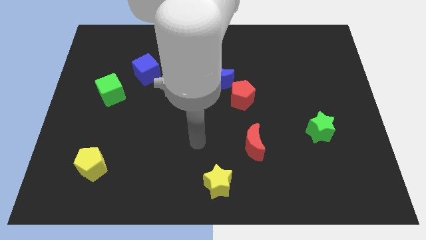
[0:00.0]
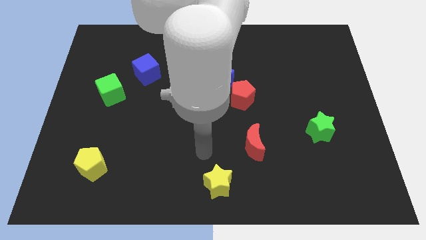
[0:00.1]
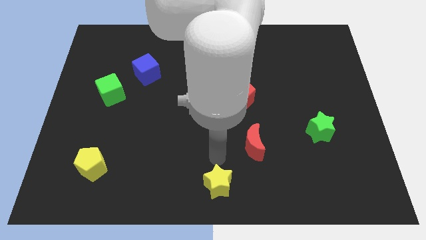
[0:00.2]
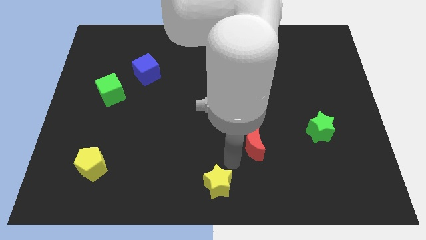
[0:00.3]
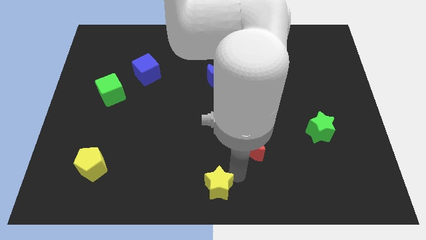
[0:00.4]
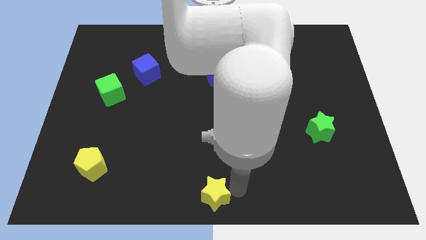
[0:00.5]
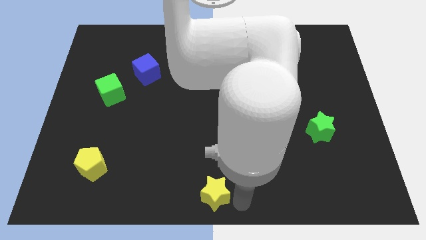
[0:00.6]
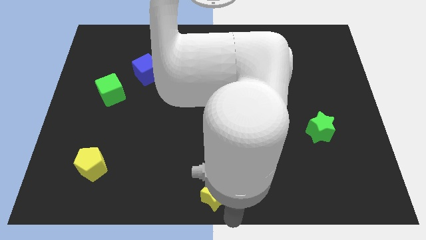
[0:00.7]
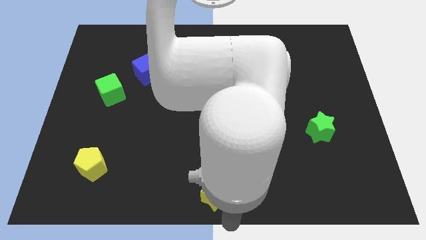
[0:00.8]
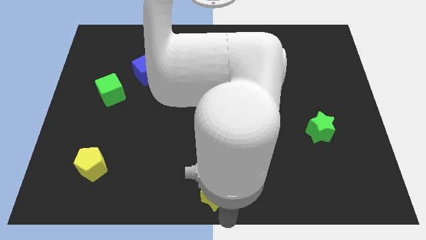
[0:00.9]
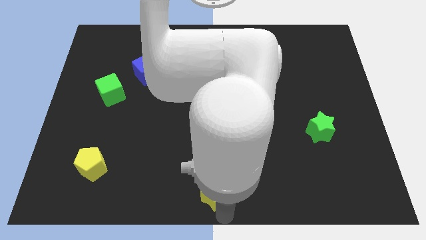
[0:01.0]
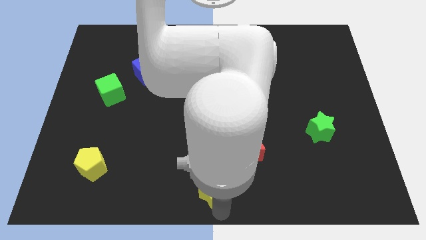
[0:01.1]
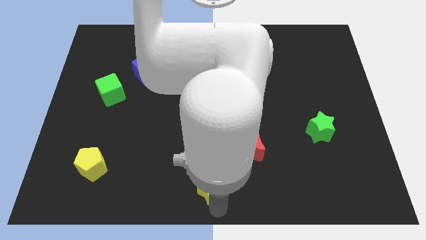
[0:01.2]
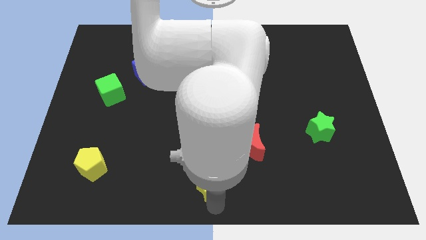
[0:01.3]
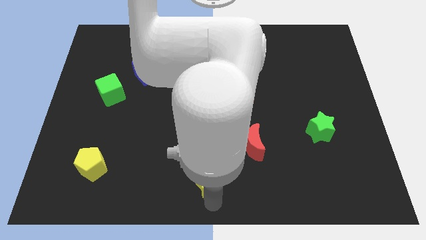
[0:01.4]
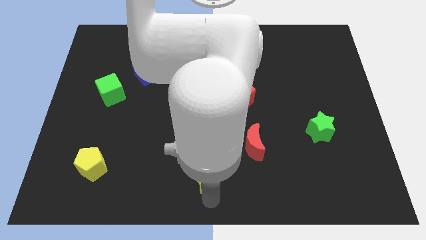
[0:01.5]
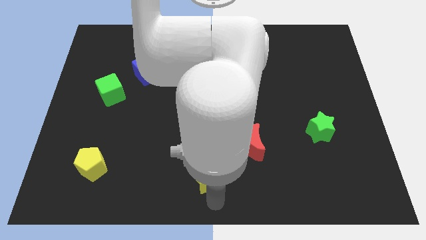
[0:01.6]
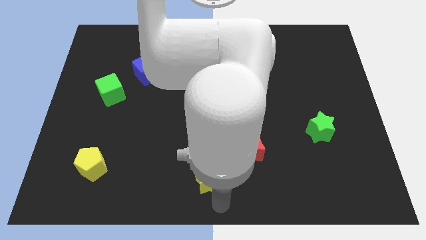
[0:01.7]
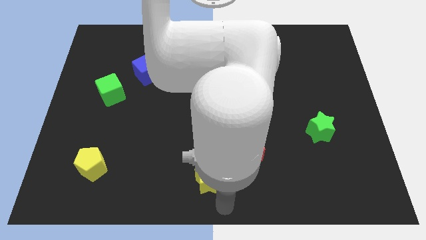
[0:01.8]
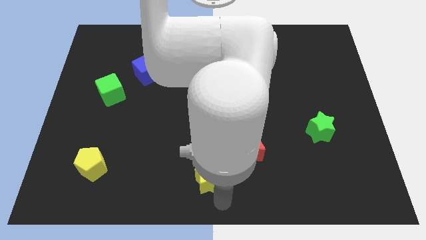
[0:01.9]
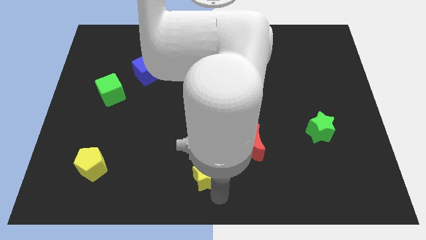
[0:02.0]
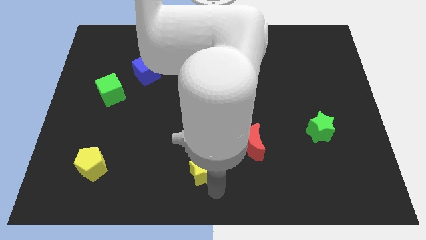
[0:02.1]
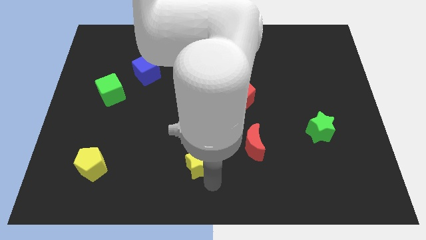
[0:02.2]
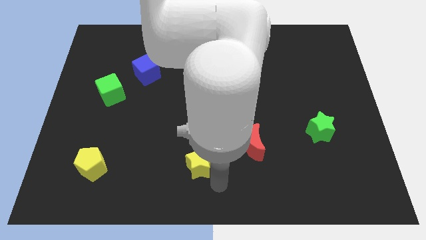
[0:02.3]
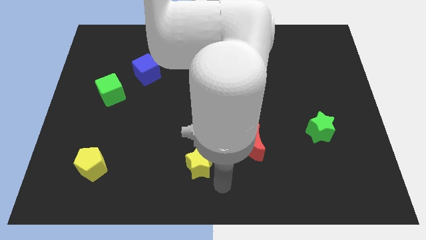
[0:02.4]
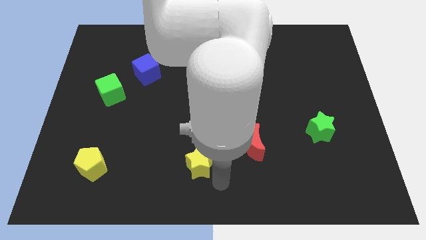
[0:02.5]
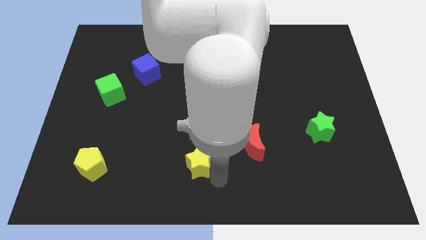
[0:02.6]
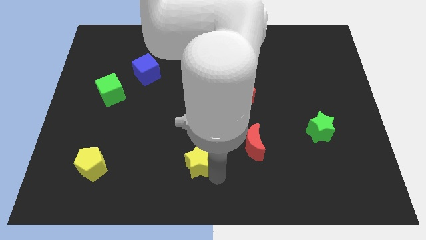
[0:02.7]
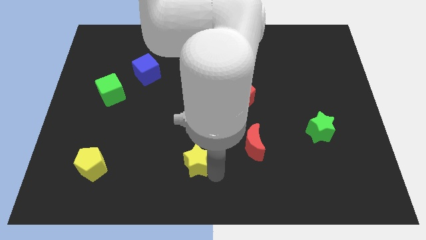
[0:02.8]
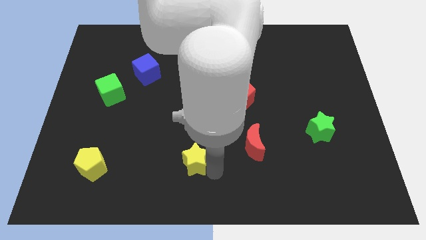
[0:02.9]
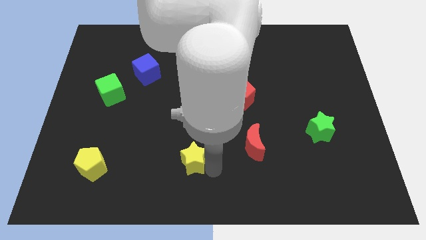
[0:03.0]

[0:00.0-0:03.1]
move the yellow star up and to the left a little

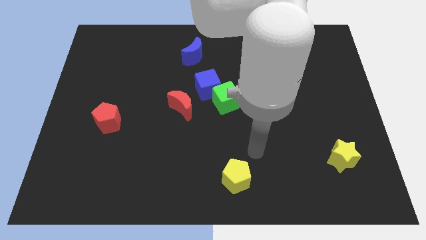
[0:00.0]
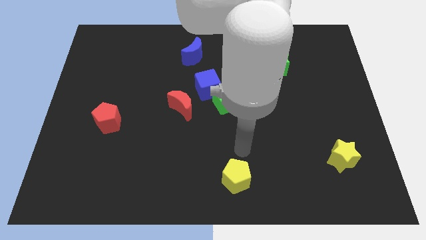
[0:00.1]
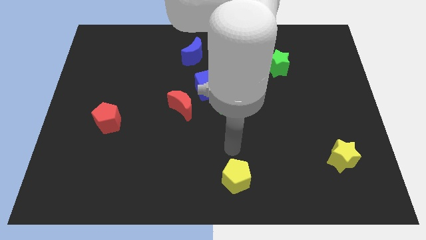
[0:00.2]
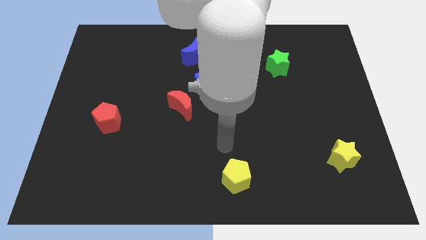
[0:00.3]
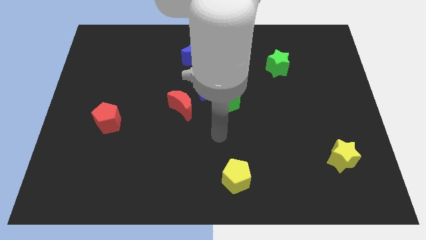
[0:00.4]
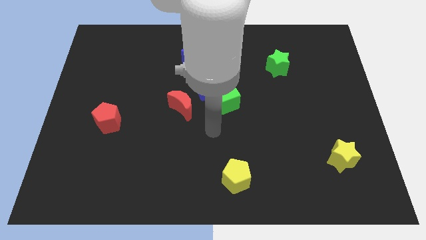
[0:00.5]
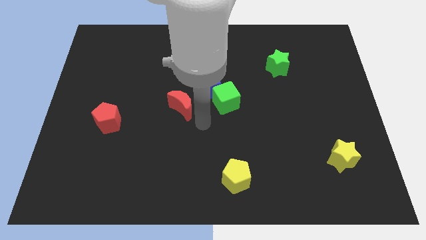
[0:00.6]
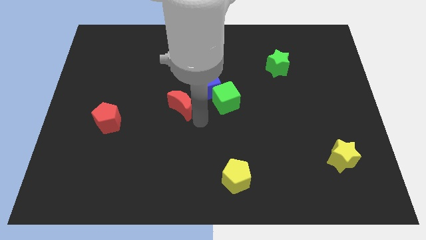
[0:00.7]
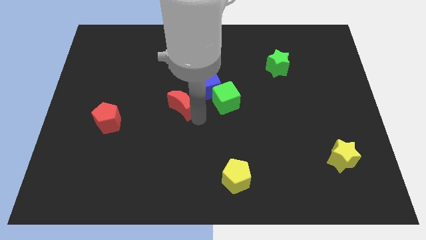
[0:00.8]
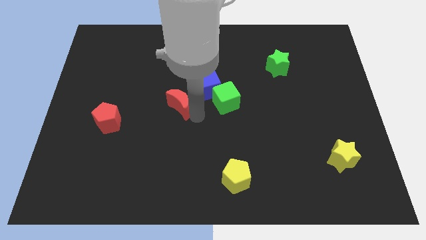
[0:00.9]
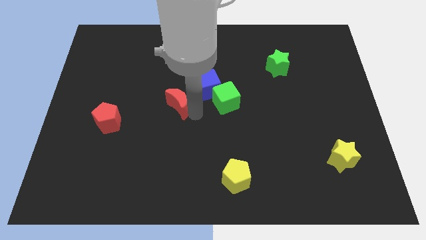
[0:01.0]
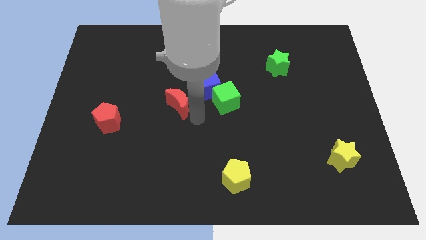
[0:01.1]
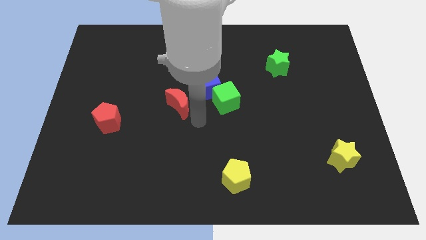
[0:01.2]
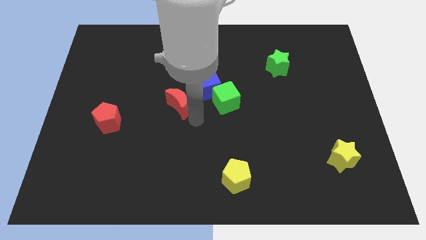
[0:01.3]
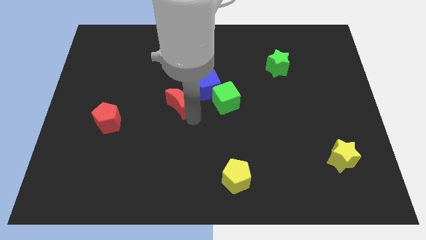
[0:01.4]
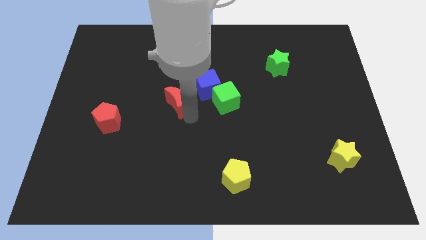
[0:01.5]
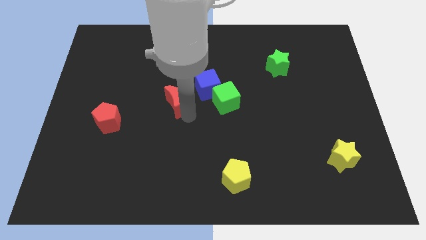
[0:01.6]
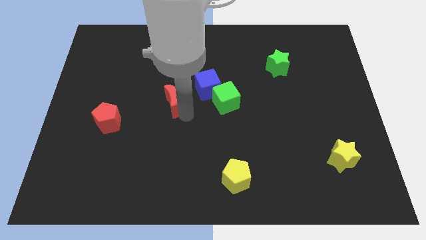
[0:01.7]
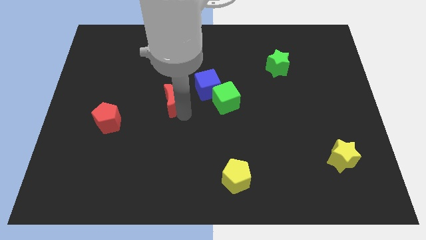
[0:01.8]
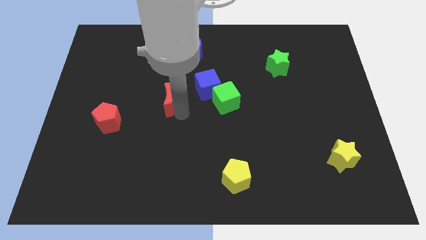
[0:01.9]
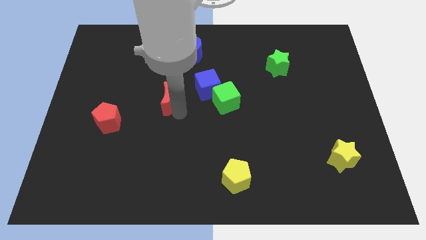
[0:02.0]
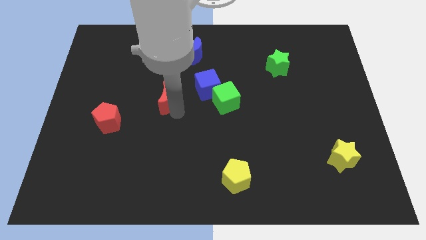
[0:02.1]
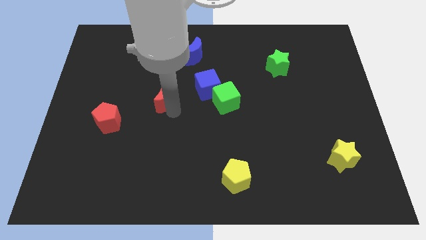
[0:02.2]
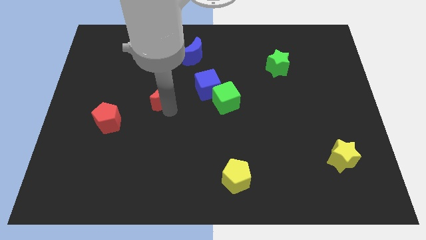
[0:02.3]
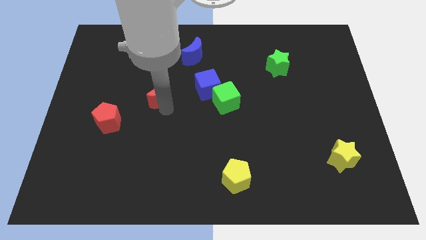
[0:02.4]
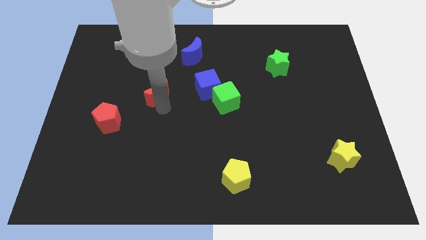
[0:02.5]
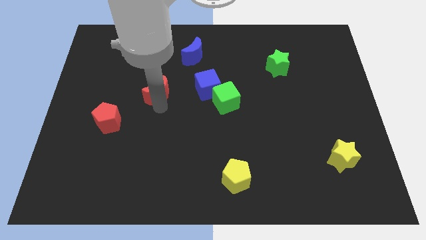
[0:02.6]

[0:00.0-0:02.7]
slightly push the red moon diagonally up and to the left

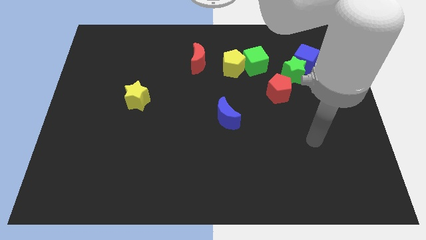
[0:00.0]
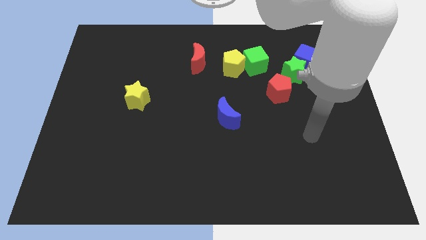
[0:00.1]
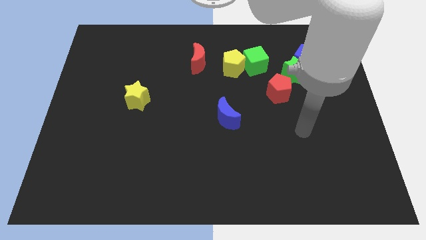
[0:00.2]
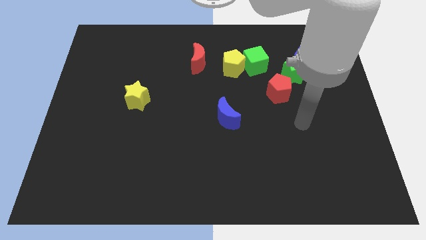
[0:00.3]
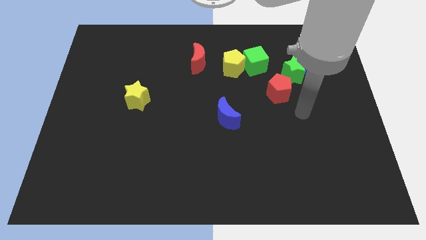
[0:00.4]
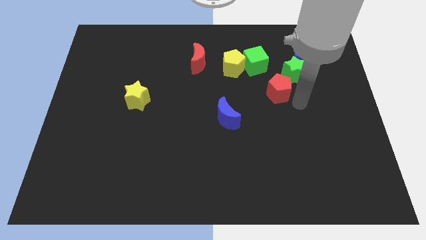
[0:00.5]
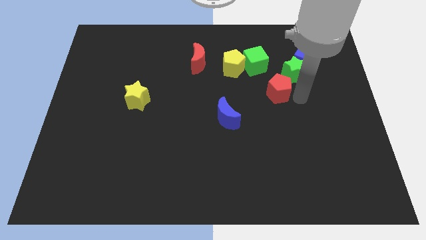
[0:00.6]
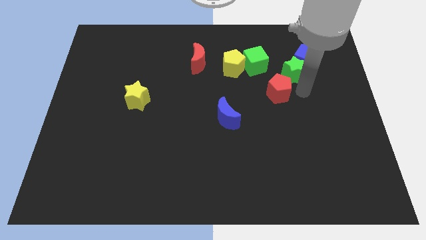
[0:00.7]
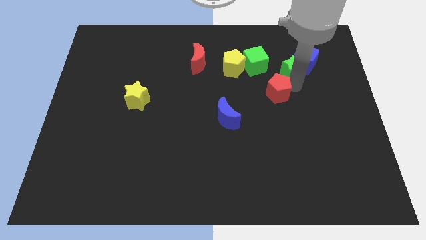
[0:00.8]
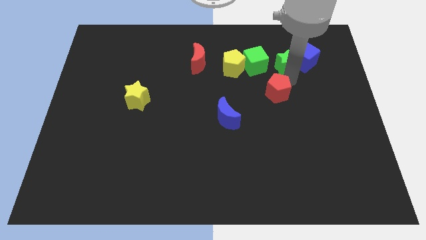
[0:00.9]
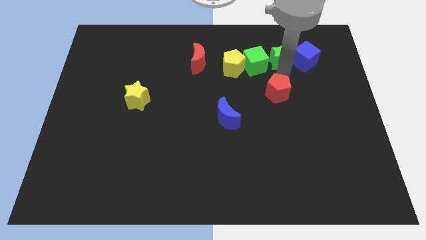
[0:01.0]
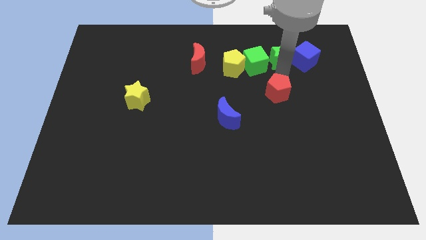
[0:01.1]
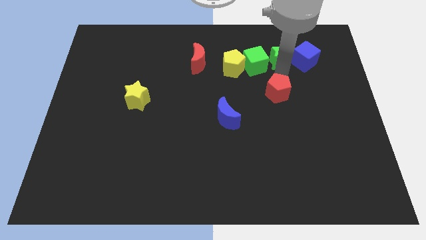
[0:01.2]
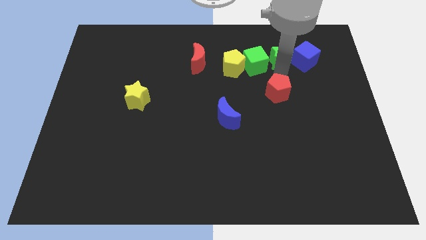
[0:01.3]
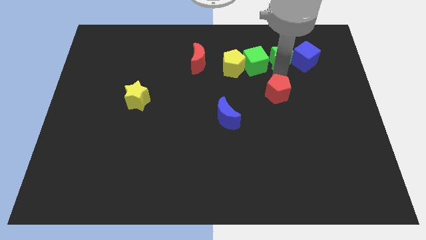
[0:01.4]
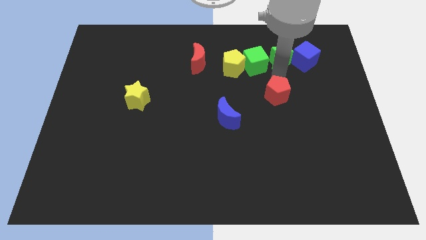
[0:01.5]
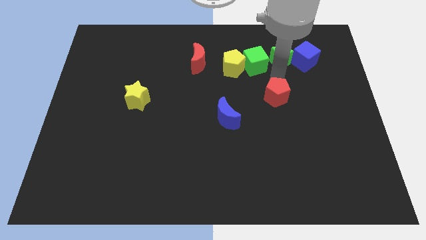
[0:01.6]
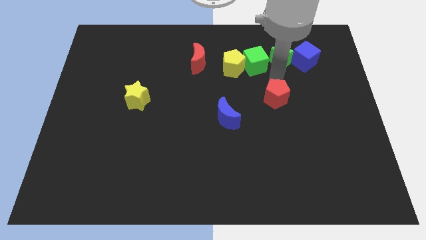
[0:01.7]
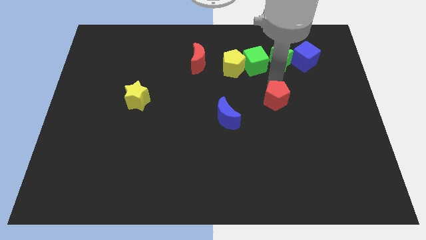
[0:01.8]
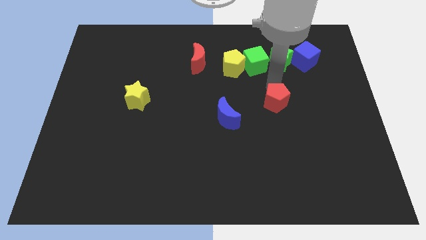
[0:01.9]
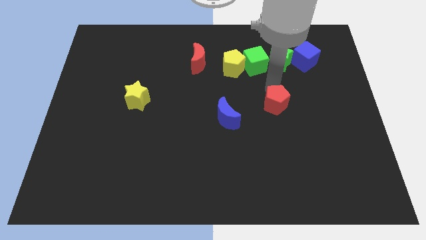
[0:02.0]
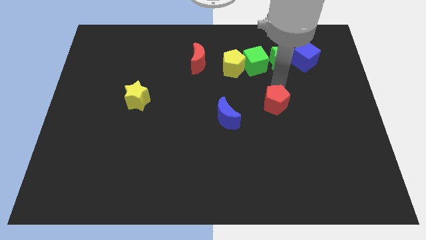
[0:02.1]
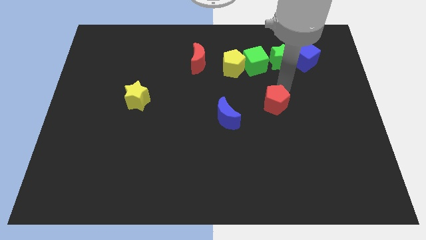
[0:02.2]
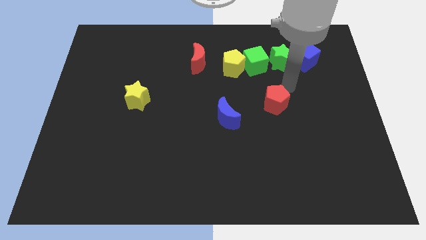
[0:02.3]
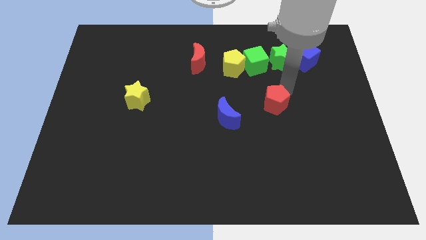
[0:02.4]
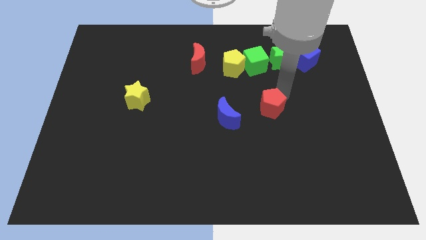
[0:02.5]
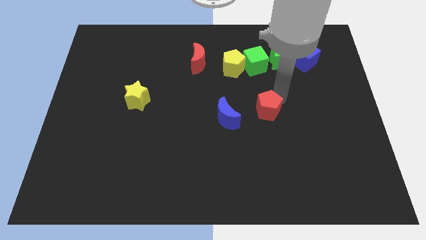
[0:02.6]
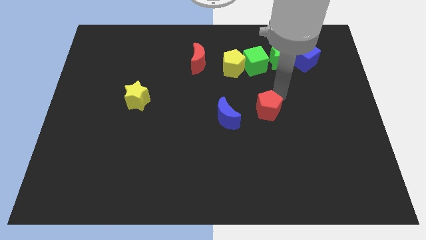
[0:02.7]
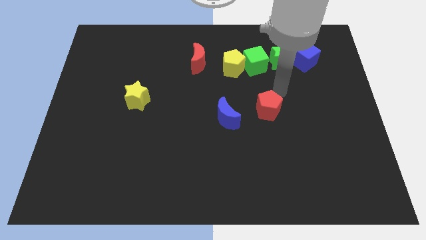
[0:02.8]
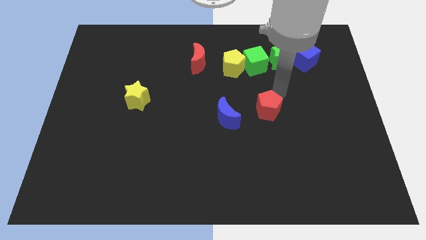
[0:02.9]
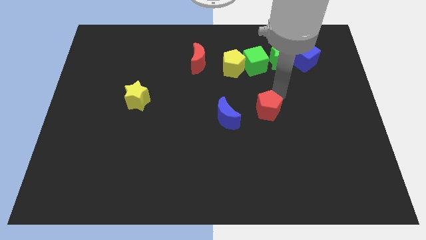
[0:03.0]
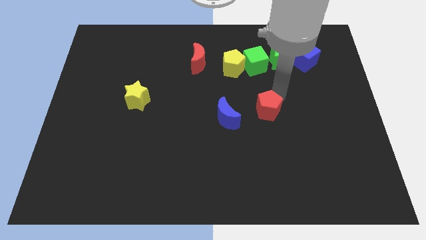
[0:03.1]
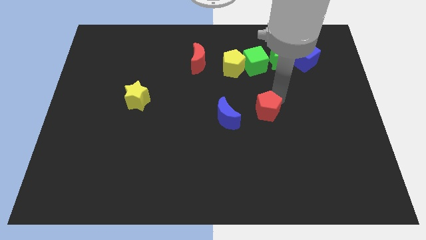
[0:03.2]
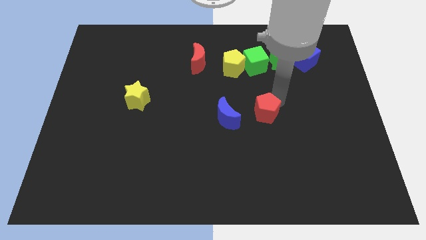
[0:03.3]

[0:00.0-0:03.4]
slide the red pentagon somewhat diagonally down and to the left
